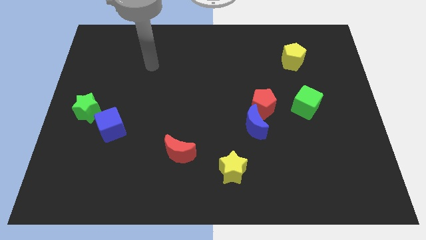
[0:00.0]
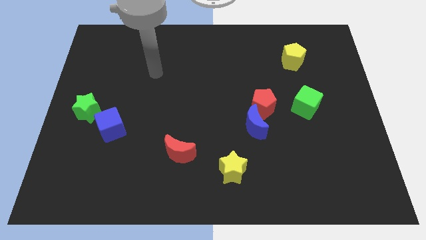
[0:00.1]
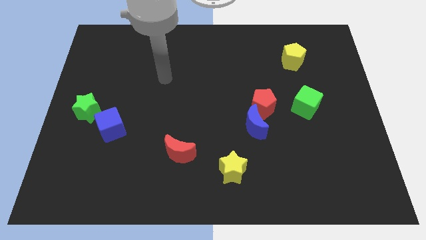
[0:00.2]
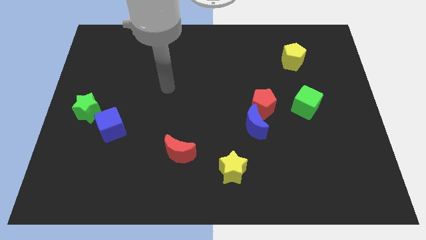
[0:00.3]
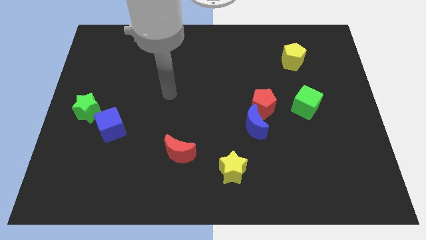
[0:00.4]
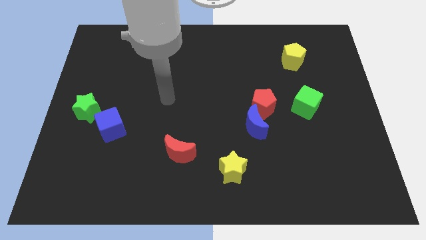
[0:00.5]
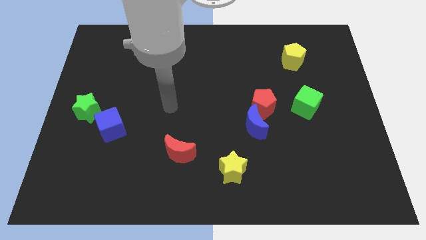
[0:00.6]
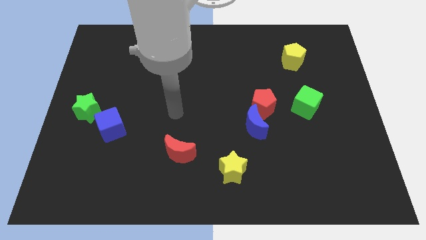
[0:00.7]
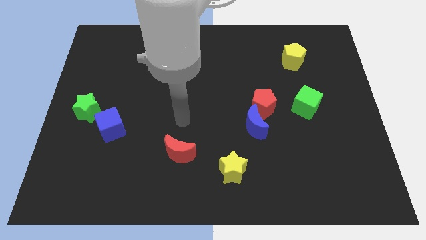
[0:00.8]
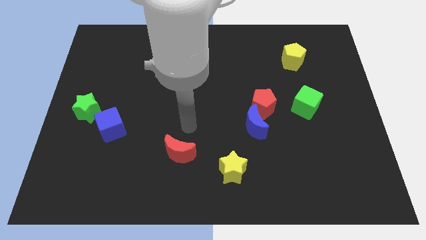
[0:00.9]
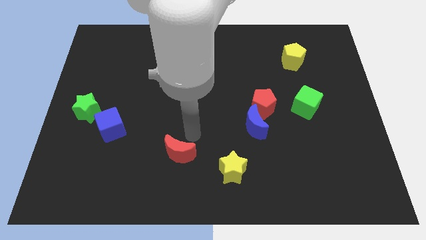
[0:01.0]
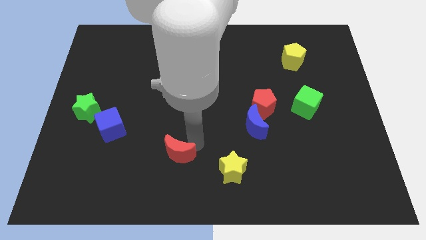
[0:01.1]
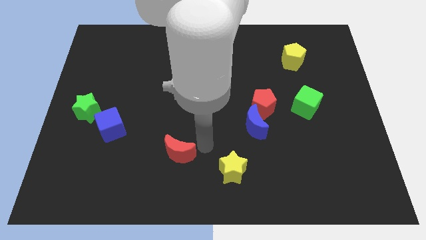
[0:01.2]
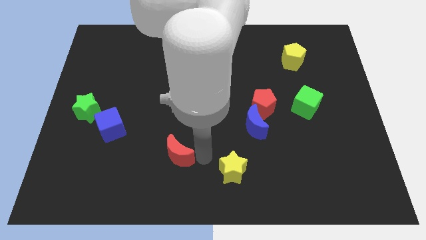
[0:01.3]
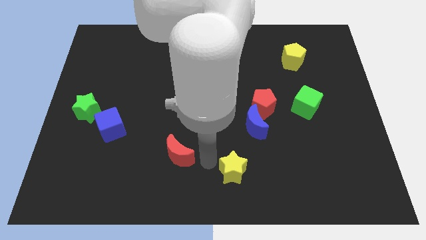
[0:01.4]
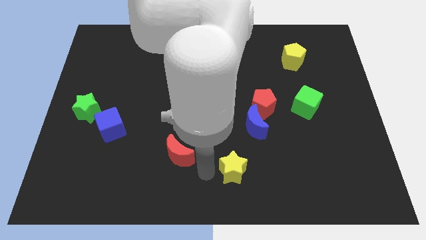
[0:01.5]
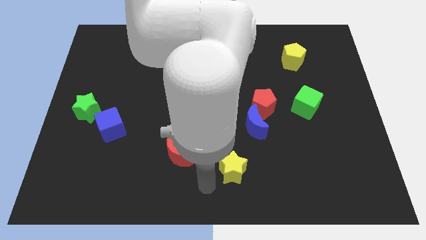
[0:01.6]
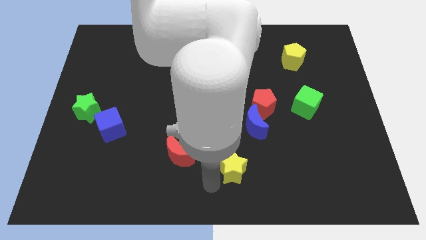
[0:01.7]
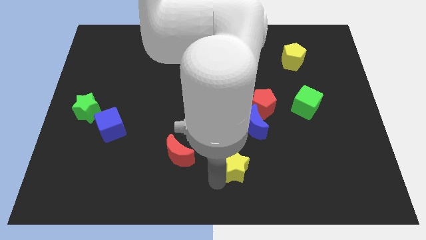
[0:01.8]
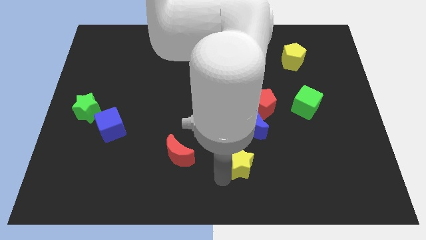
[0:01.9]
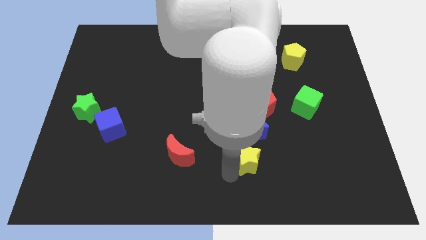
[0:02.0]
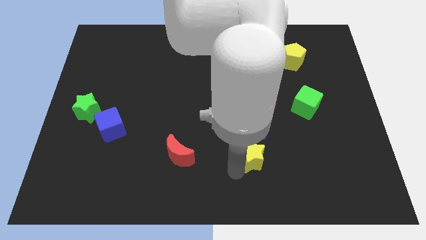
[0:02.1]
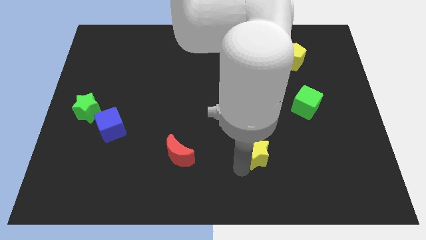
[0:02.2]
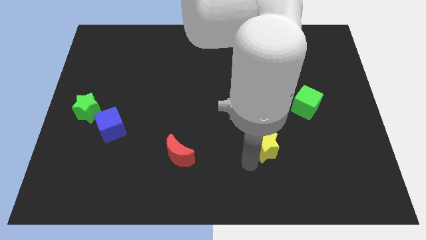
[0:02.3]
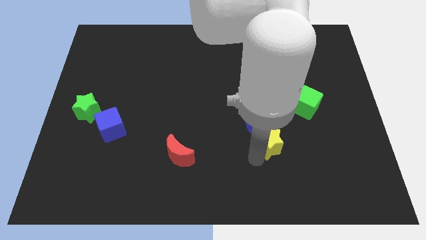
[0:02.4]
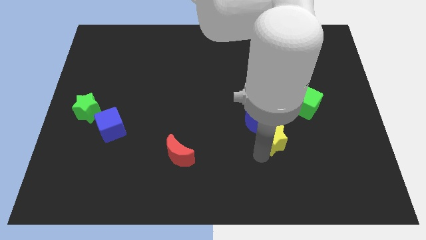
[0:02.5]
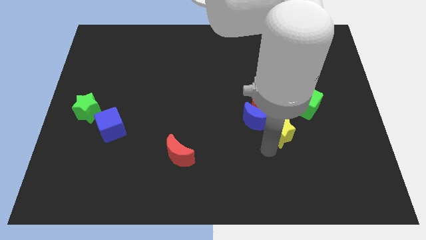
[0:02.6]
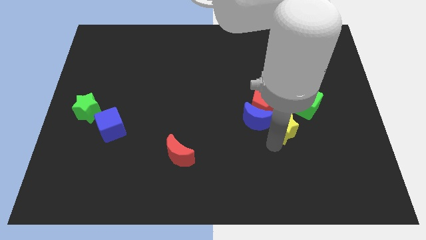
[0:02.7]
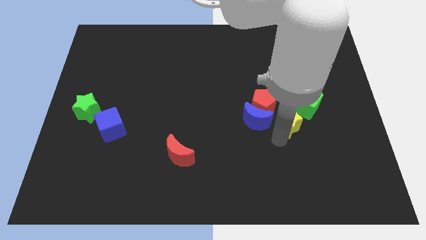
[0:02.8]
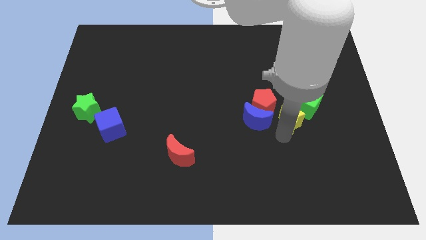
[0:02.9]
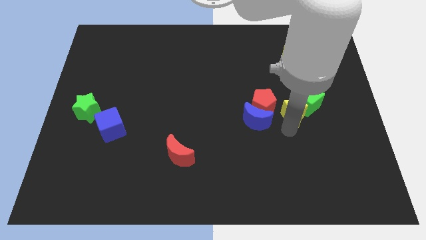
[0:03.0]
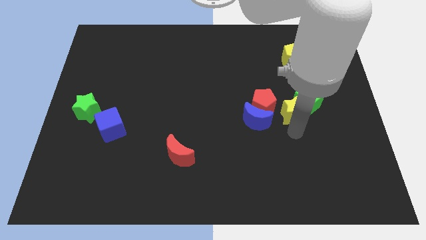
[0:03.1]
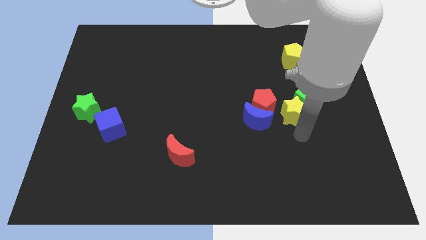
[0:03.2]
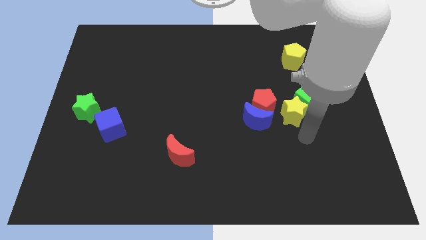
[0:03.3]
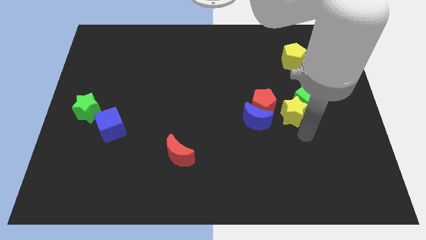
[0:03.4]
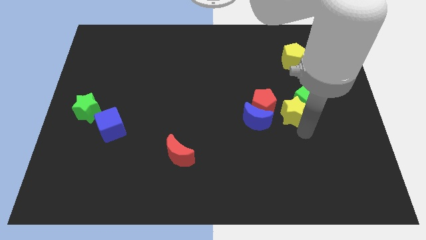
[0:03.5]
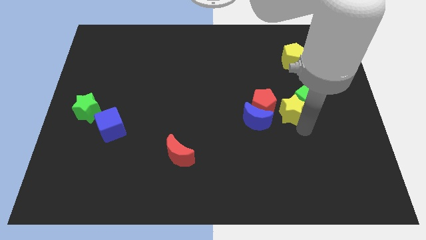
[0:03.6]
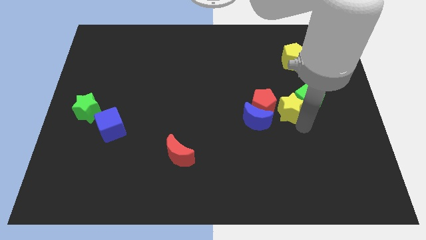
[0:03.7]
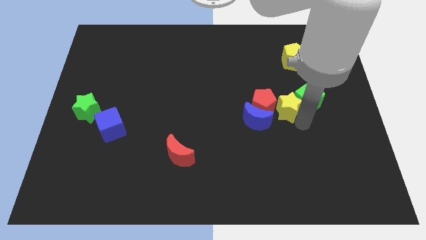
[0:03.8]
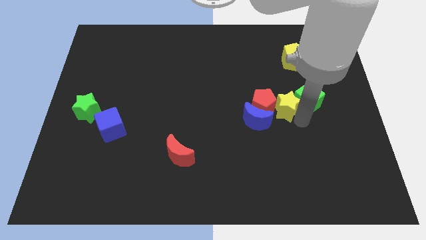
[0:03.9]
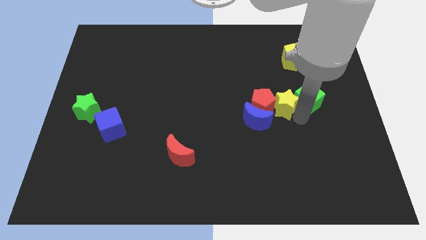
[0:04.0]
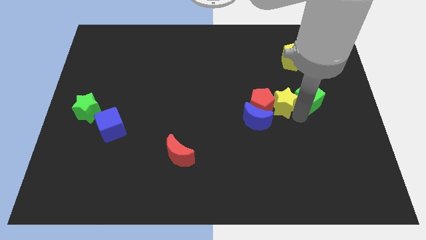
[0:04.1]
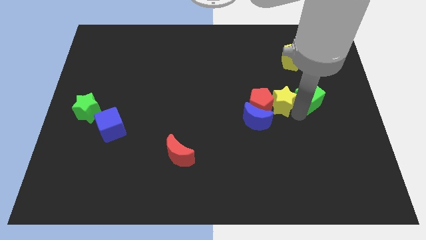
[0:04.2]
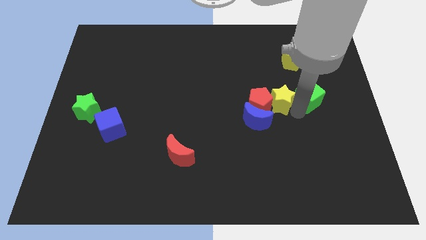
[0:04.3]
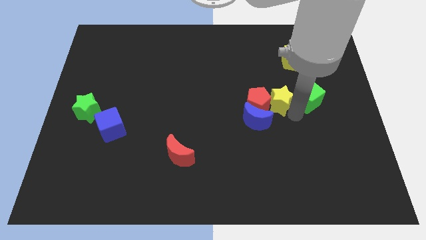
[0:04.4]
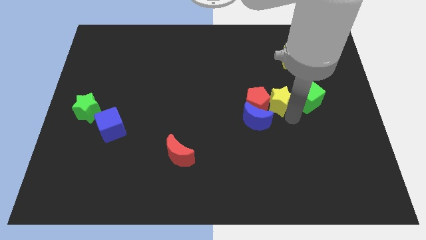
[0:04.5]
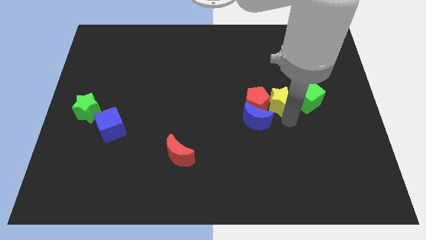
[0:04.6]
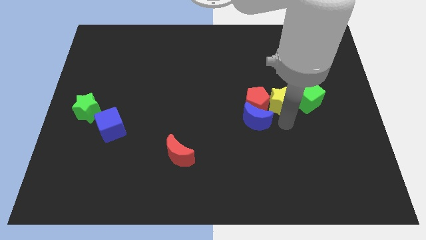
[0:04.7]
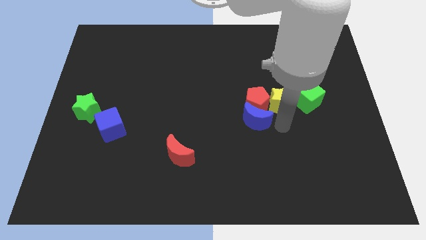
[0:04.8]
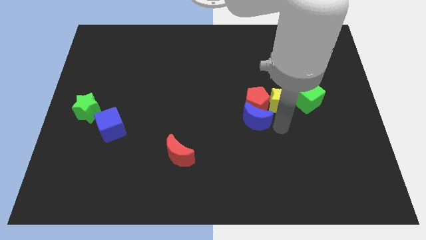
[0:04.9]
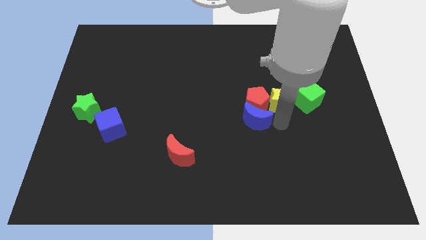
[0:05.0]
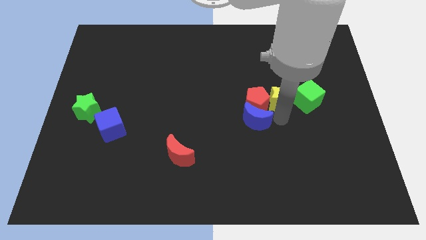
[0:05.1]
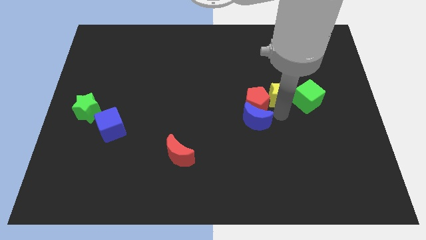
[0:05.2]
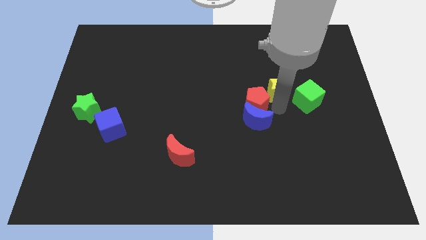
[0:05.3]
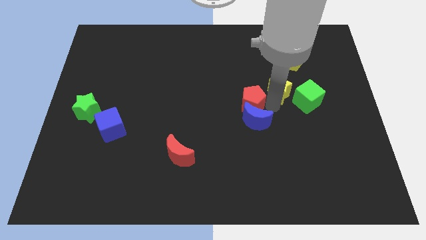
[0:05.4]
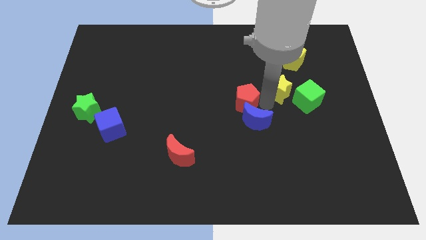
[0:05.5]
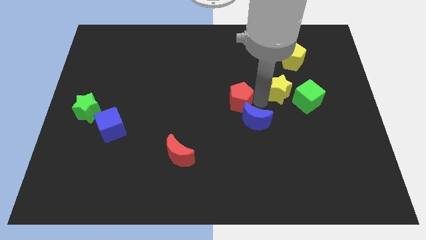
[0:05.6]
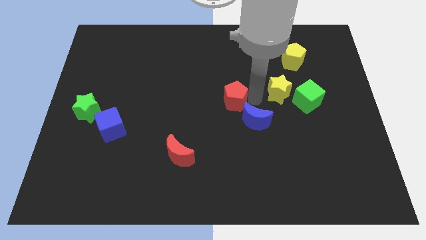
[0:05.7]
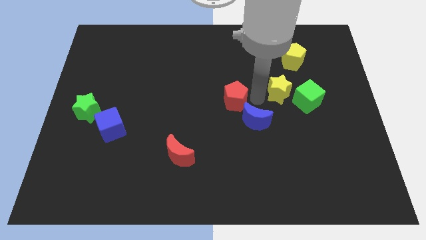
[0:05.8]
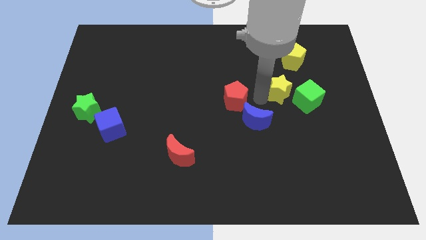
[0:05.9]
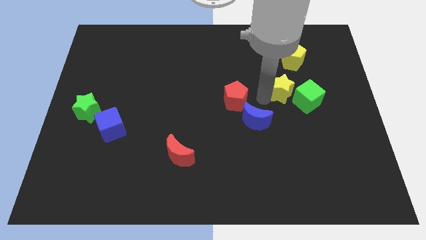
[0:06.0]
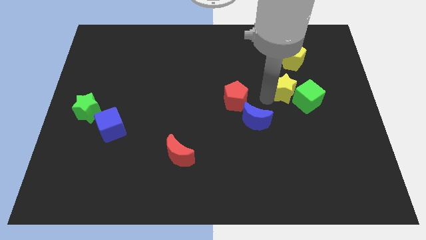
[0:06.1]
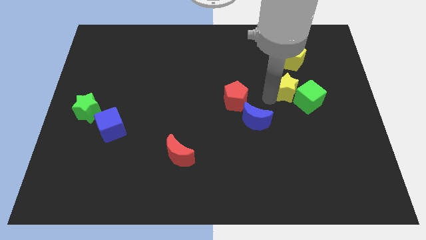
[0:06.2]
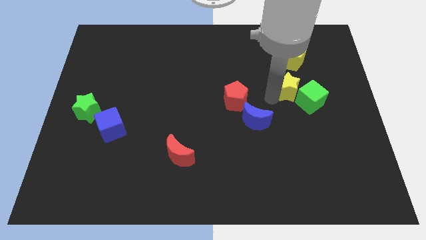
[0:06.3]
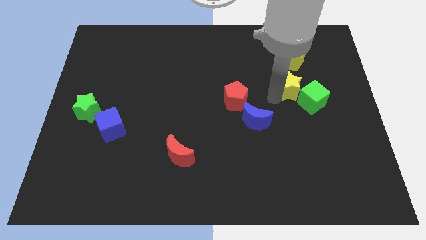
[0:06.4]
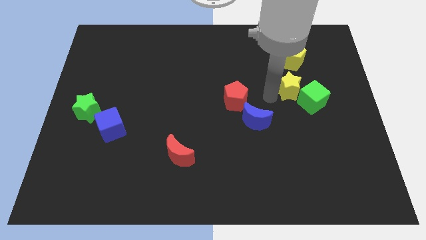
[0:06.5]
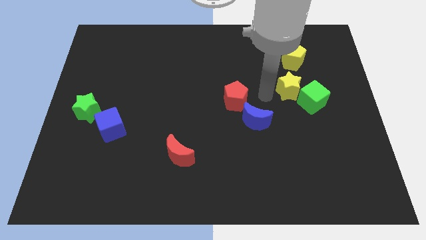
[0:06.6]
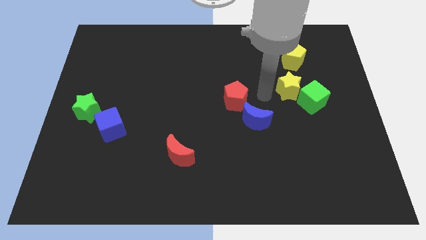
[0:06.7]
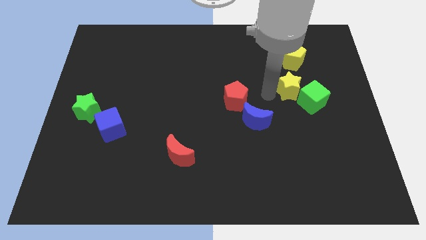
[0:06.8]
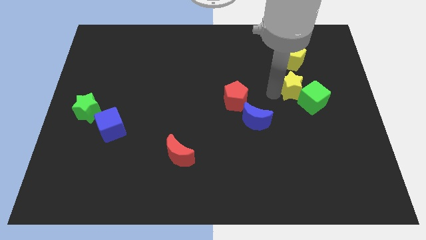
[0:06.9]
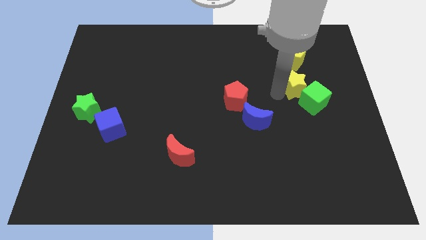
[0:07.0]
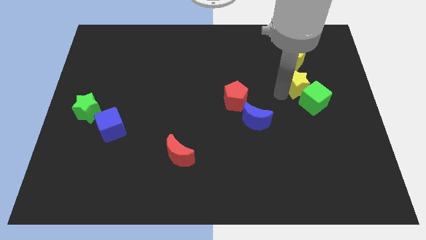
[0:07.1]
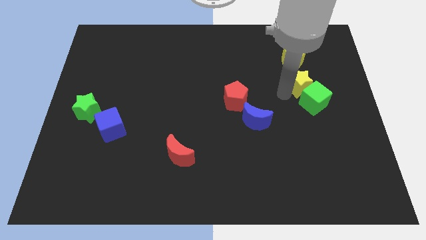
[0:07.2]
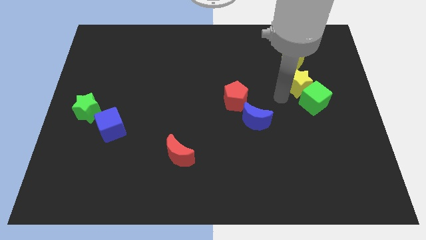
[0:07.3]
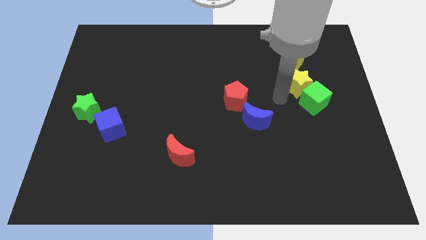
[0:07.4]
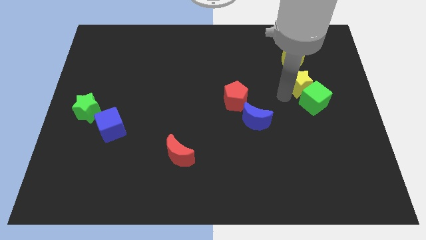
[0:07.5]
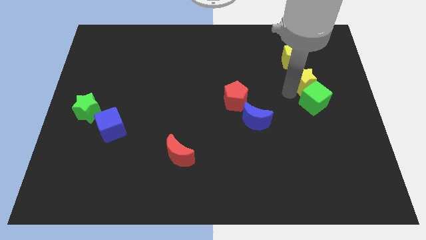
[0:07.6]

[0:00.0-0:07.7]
push the yellow star diagonally down and to the right of the yellow pentagon
